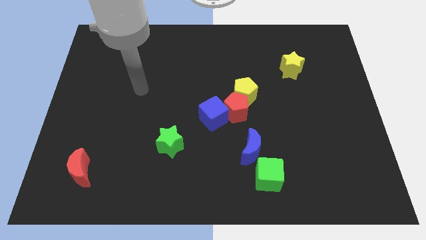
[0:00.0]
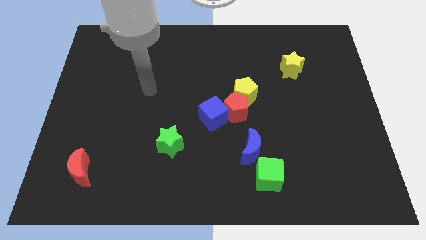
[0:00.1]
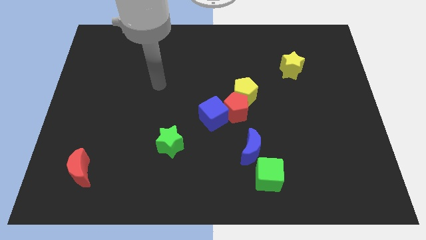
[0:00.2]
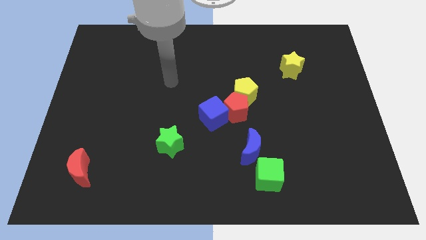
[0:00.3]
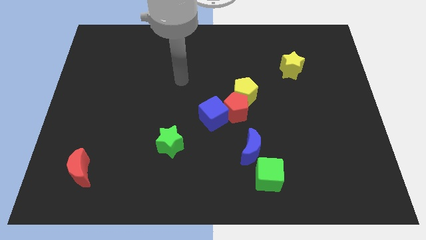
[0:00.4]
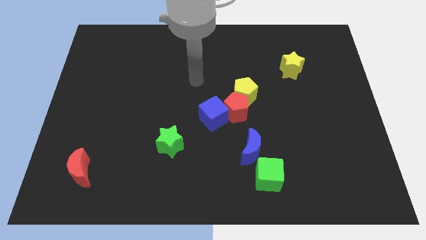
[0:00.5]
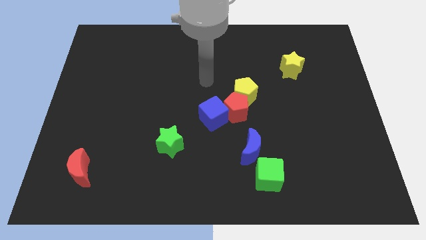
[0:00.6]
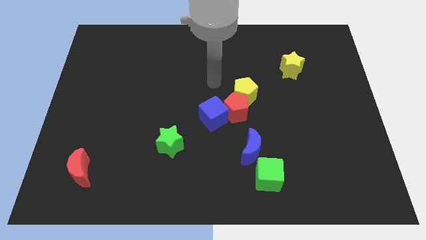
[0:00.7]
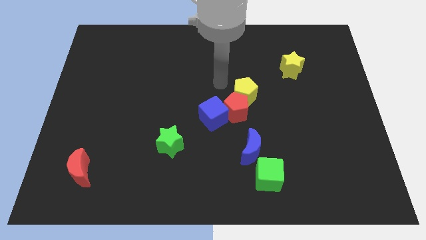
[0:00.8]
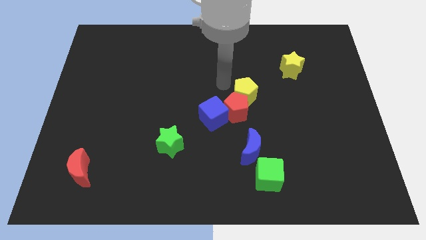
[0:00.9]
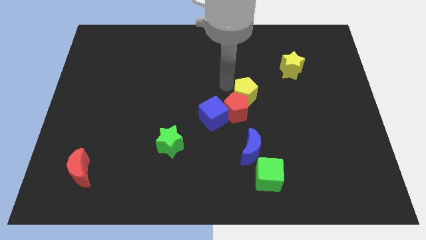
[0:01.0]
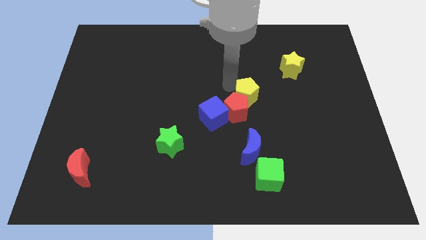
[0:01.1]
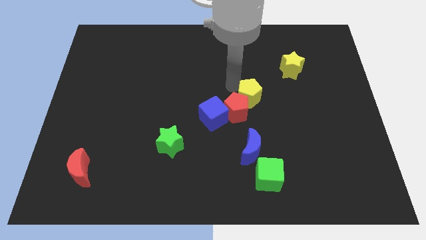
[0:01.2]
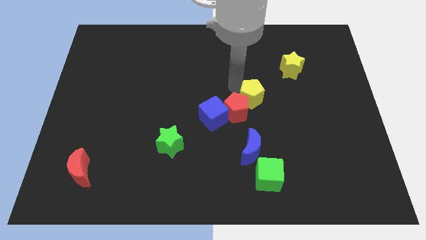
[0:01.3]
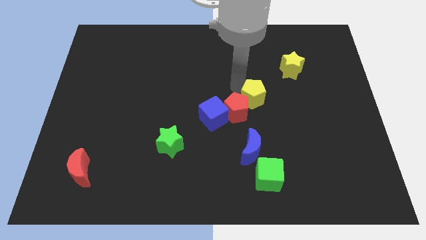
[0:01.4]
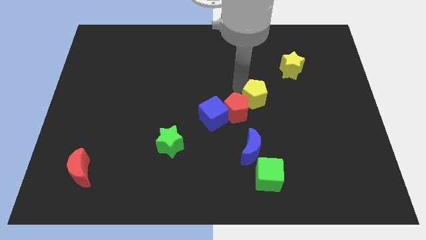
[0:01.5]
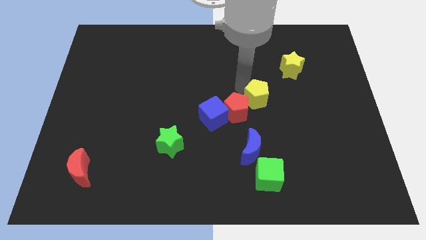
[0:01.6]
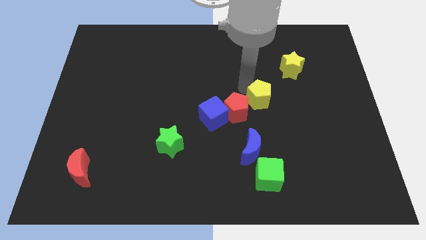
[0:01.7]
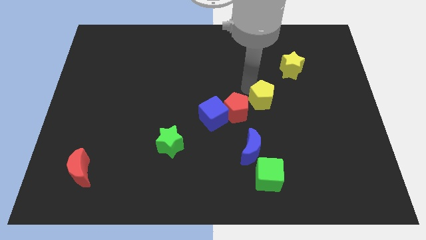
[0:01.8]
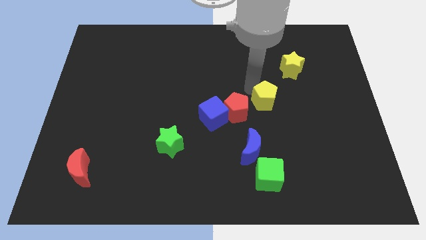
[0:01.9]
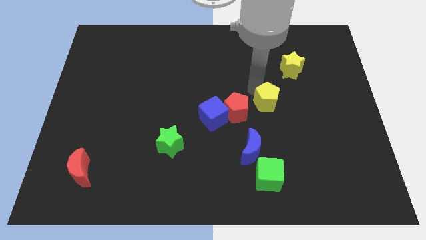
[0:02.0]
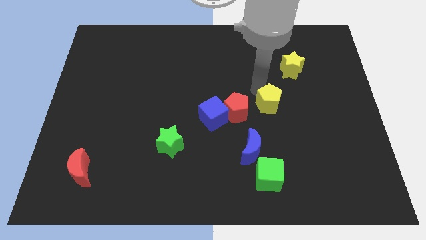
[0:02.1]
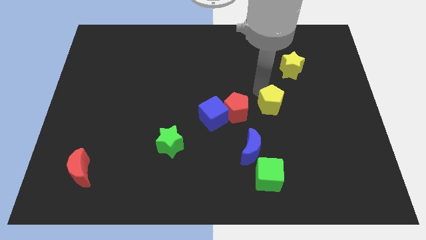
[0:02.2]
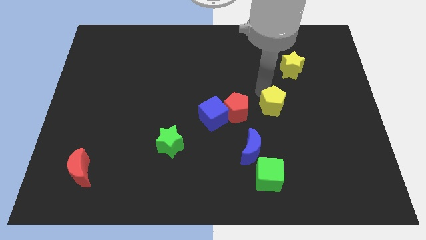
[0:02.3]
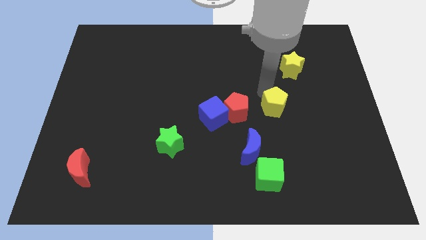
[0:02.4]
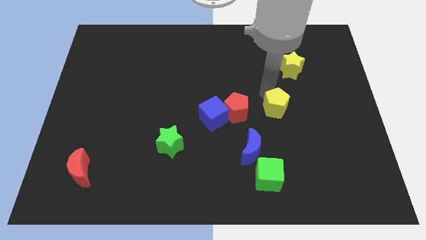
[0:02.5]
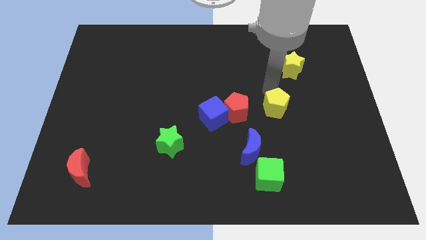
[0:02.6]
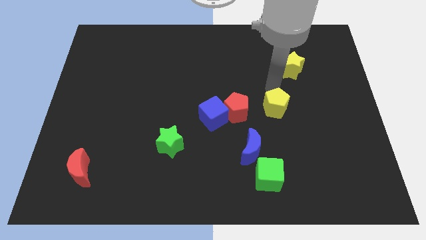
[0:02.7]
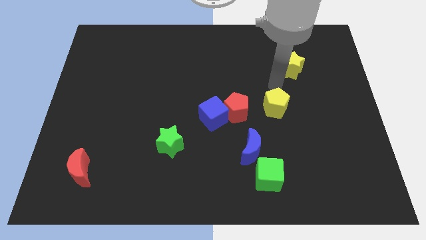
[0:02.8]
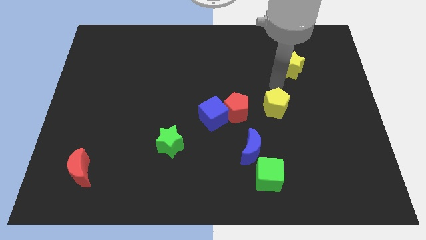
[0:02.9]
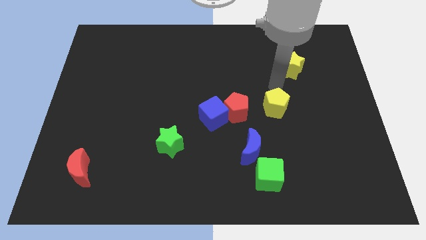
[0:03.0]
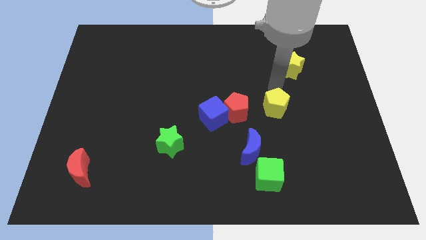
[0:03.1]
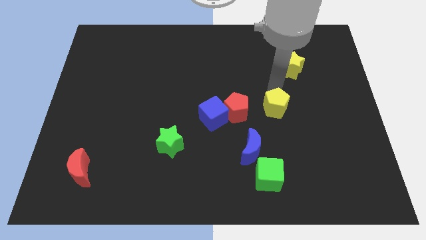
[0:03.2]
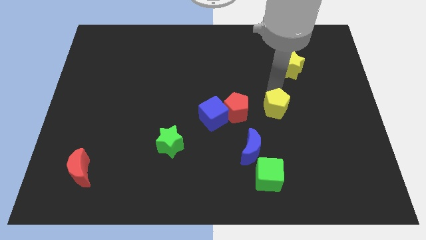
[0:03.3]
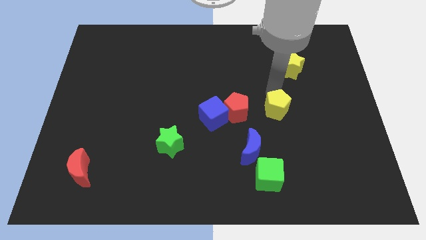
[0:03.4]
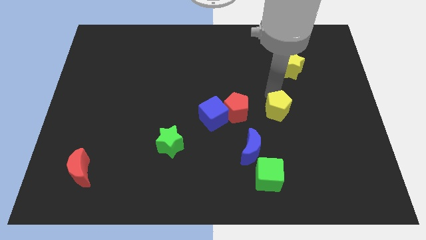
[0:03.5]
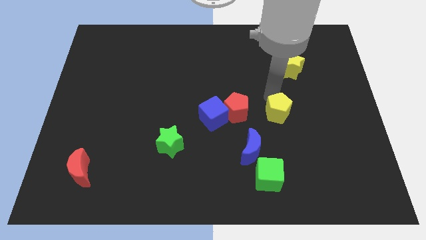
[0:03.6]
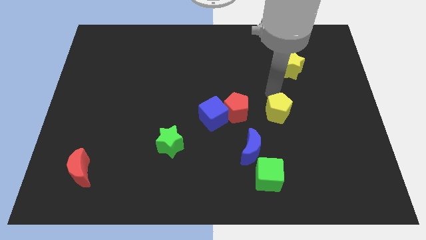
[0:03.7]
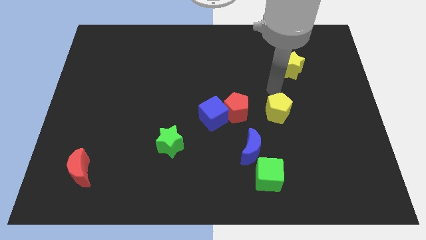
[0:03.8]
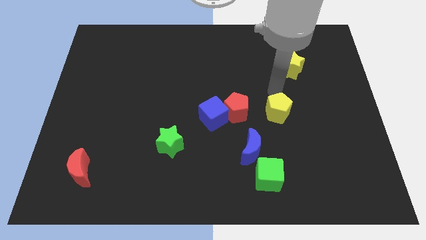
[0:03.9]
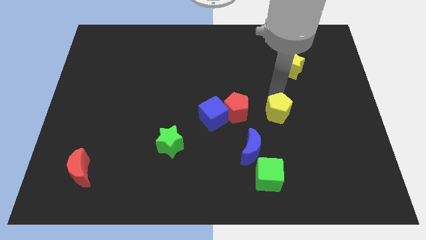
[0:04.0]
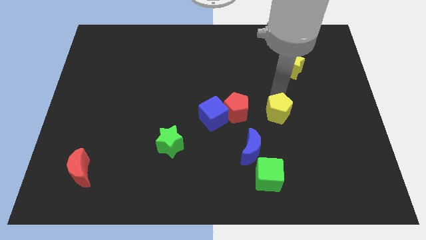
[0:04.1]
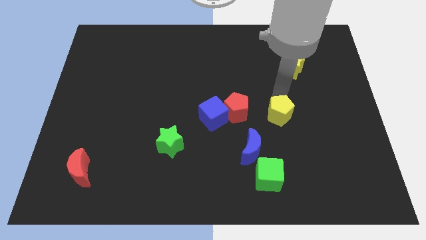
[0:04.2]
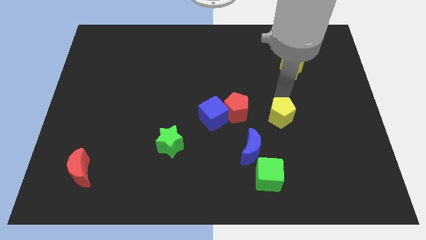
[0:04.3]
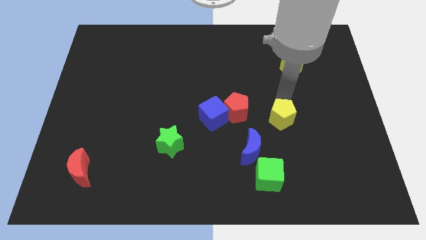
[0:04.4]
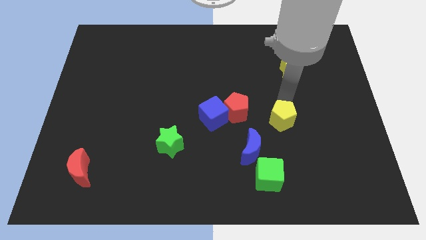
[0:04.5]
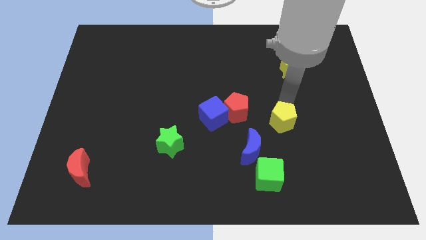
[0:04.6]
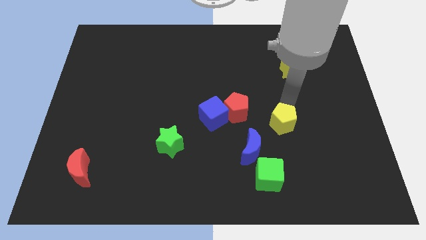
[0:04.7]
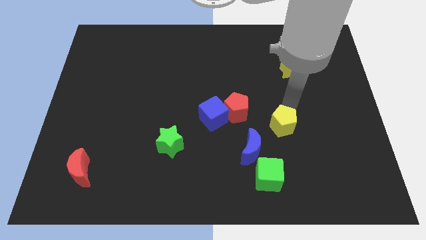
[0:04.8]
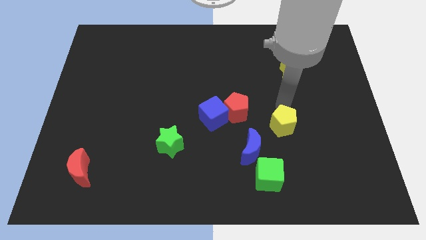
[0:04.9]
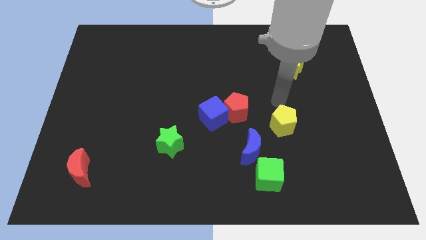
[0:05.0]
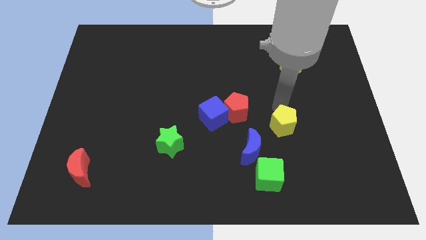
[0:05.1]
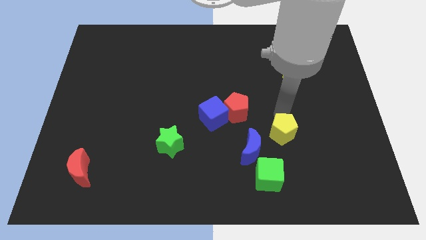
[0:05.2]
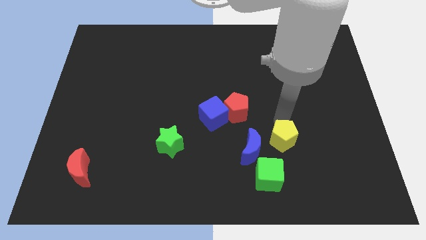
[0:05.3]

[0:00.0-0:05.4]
put the yellow pentagon to the top right side of the green cube

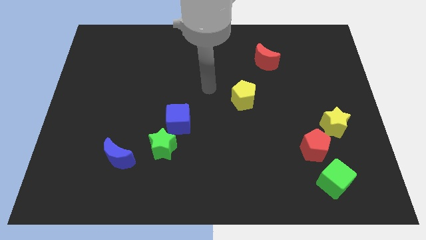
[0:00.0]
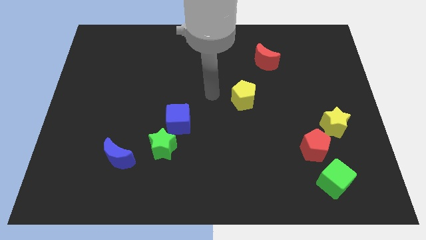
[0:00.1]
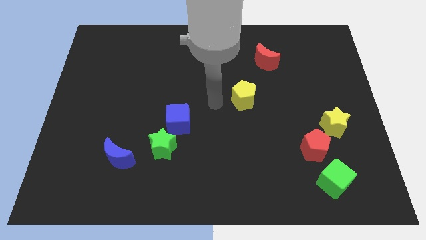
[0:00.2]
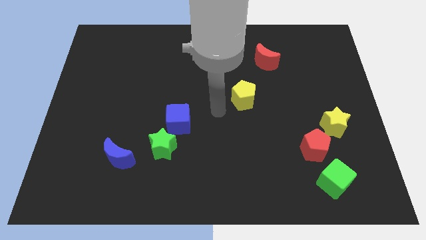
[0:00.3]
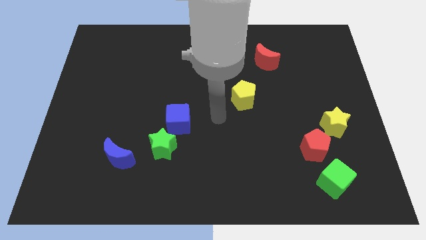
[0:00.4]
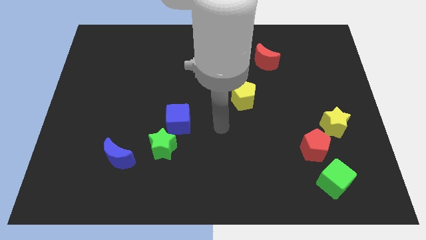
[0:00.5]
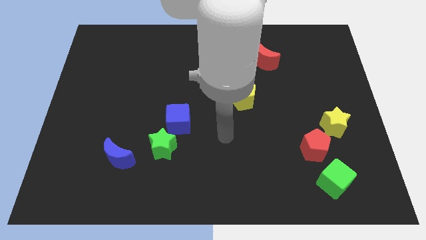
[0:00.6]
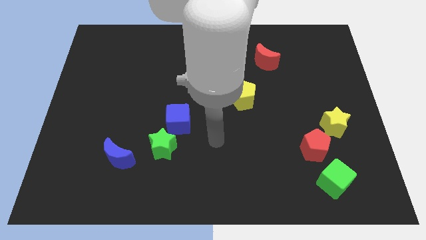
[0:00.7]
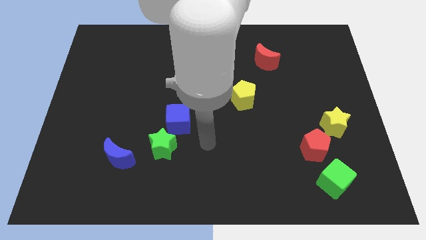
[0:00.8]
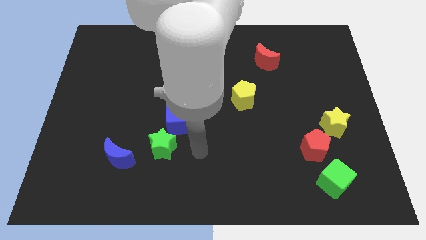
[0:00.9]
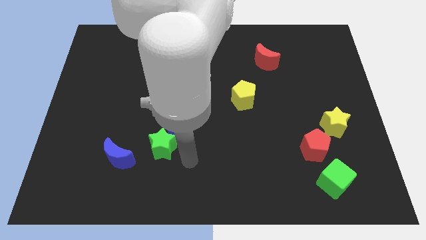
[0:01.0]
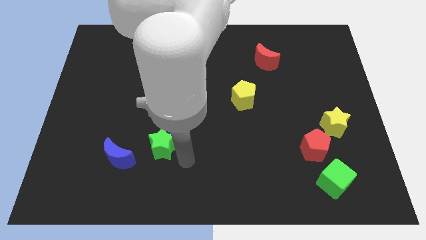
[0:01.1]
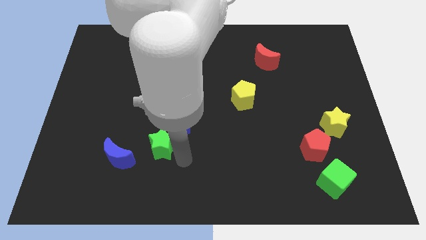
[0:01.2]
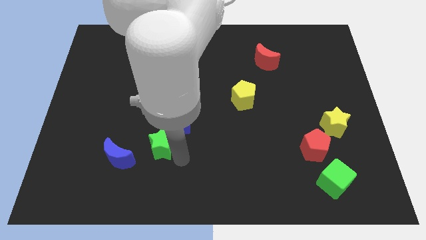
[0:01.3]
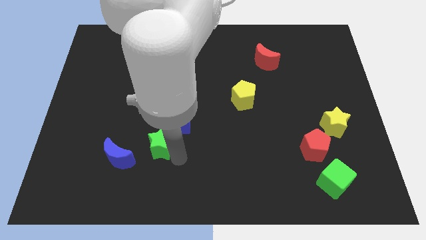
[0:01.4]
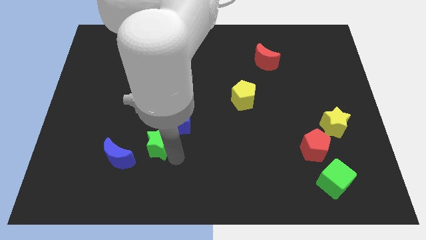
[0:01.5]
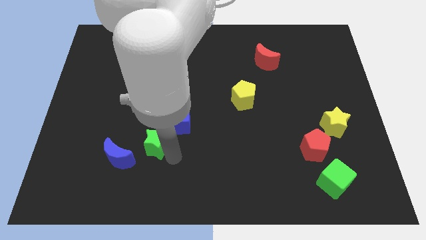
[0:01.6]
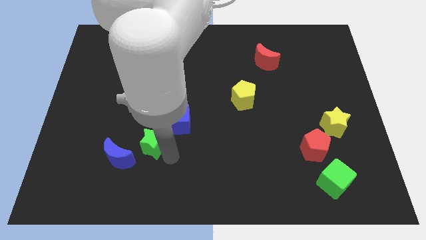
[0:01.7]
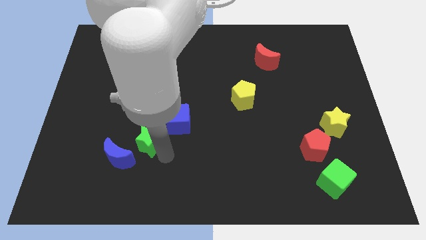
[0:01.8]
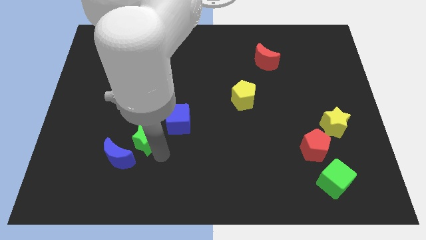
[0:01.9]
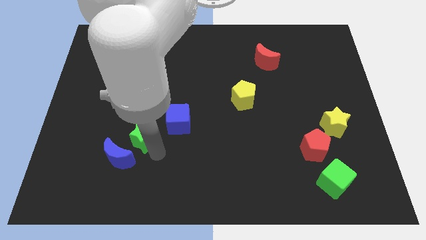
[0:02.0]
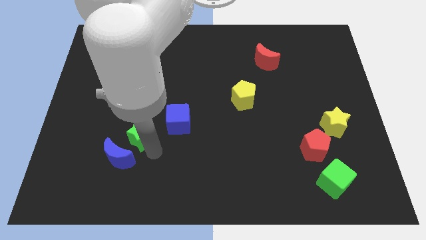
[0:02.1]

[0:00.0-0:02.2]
push the green star to the top of the blue moon
